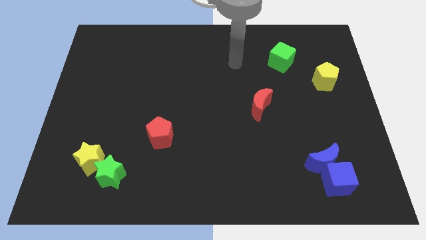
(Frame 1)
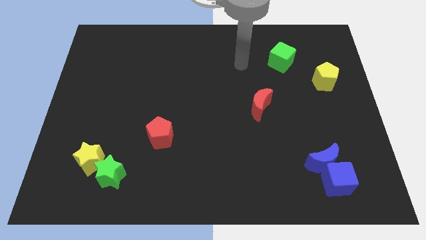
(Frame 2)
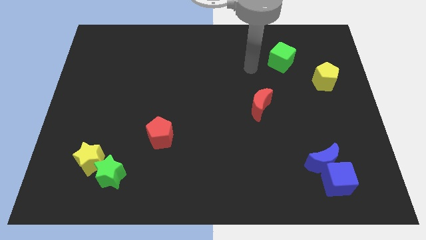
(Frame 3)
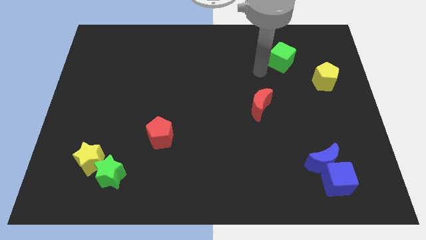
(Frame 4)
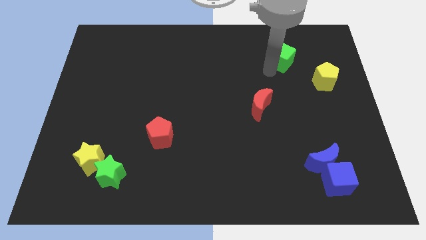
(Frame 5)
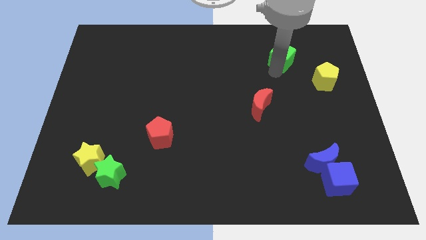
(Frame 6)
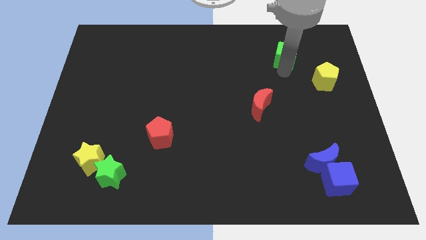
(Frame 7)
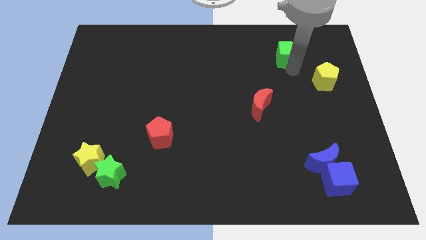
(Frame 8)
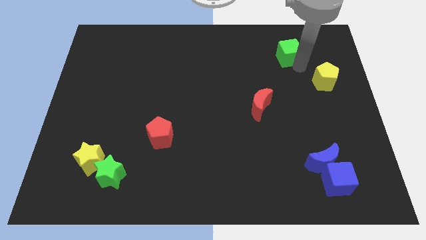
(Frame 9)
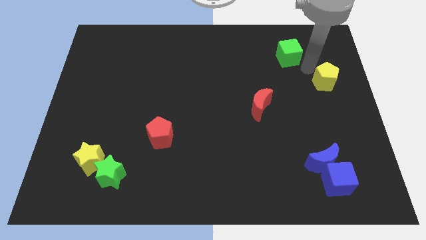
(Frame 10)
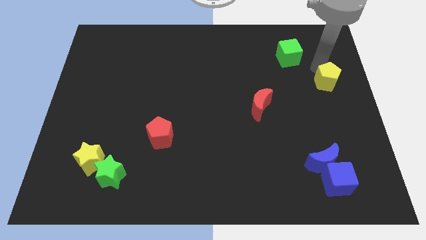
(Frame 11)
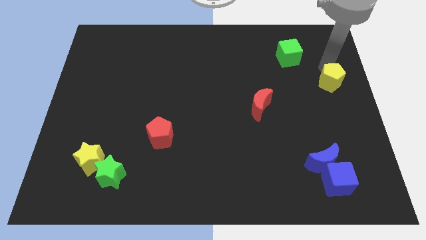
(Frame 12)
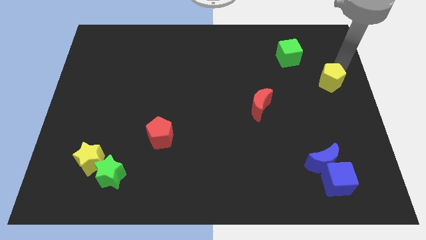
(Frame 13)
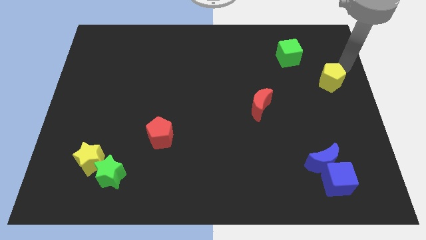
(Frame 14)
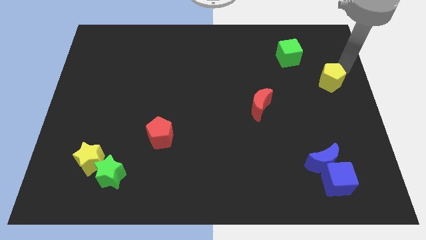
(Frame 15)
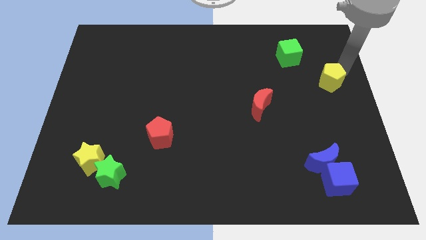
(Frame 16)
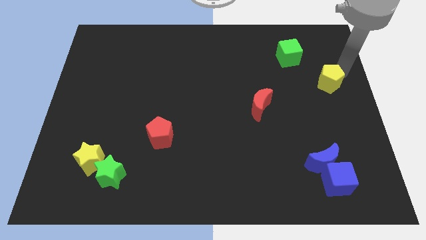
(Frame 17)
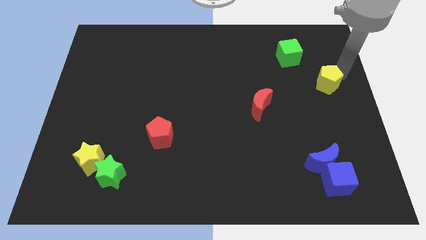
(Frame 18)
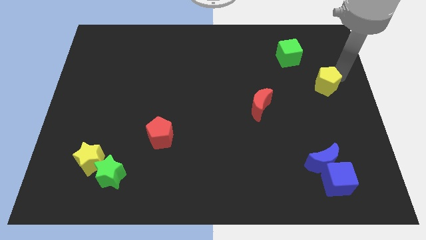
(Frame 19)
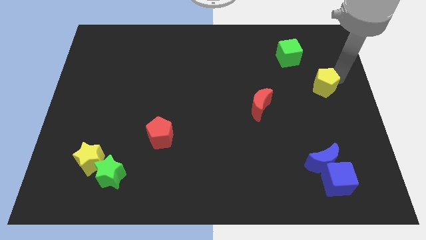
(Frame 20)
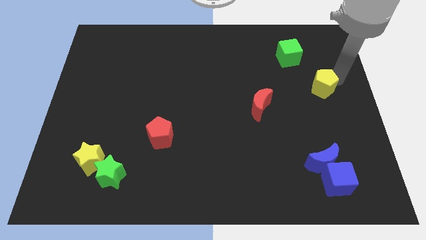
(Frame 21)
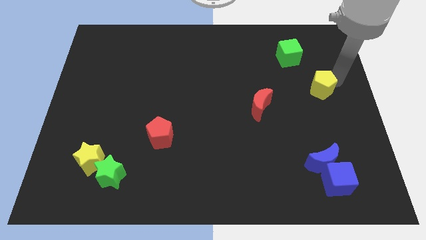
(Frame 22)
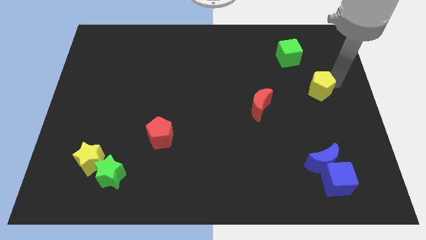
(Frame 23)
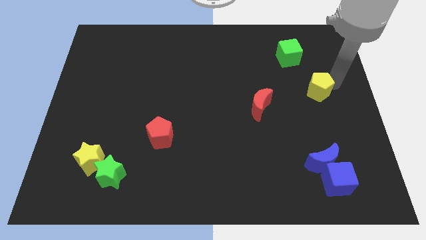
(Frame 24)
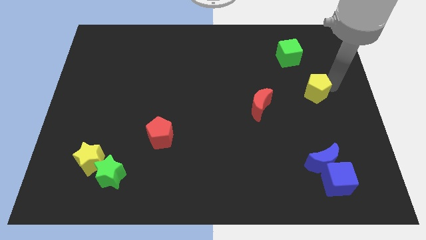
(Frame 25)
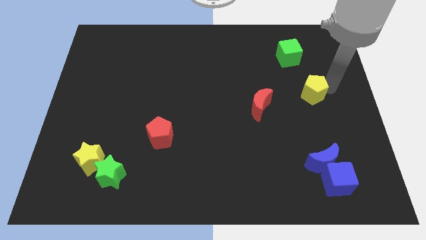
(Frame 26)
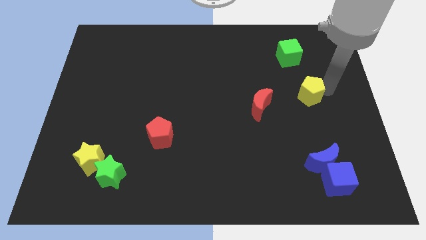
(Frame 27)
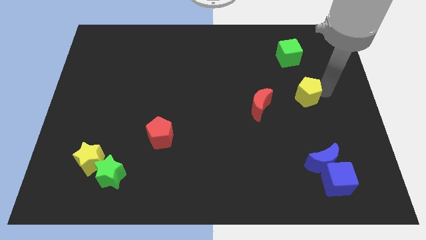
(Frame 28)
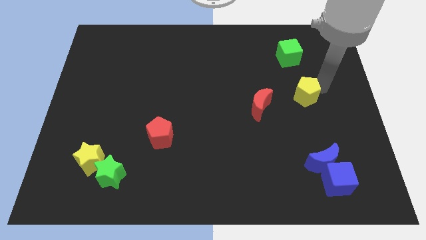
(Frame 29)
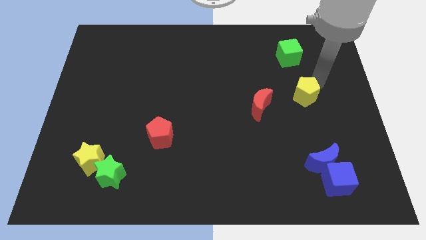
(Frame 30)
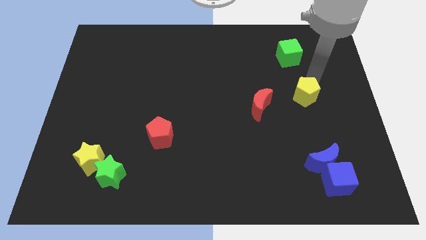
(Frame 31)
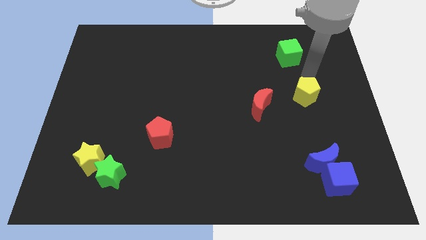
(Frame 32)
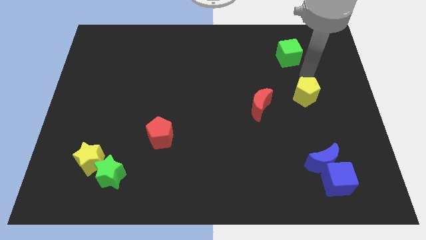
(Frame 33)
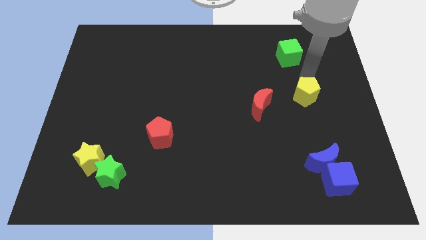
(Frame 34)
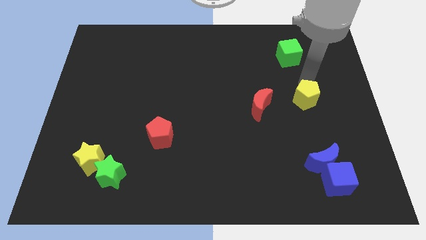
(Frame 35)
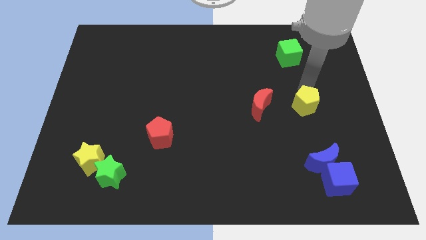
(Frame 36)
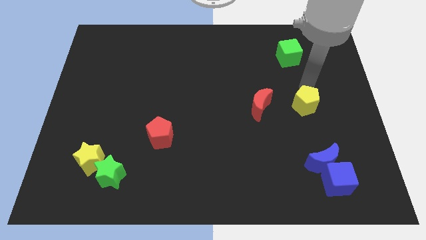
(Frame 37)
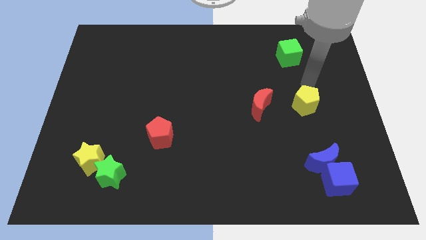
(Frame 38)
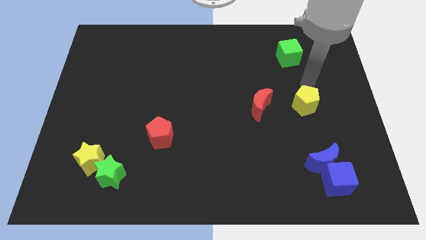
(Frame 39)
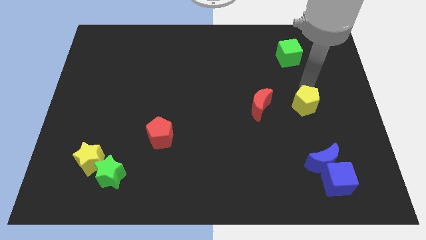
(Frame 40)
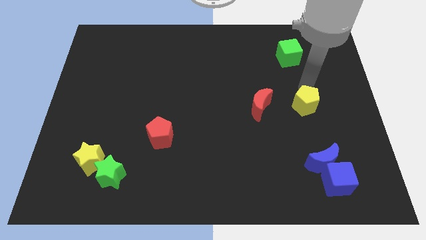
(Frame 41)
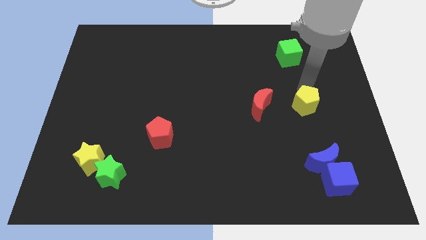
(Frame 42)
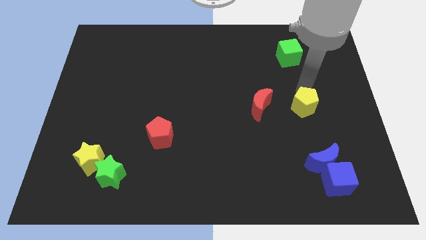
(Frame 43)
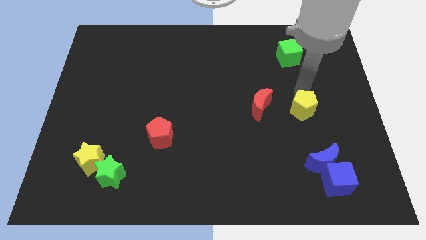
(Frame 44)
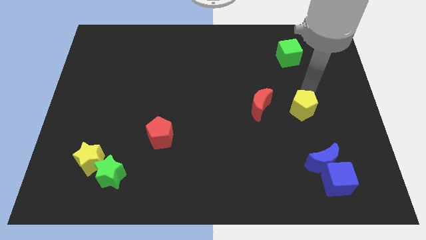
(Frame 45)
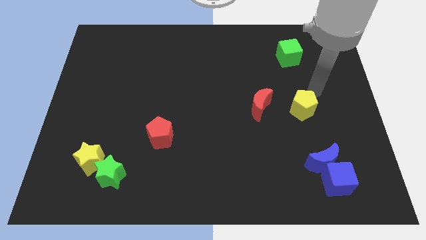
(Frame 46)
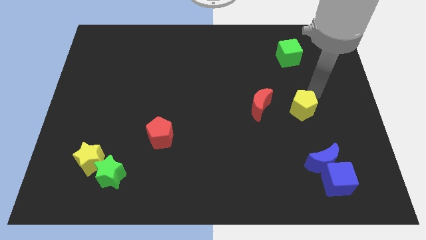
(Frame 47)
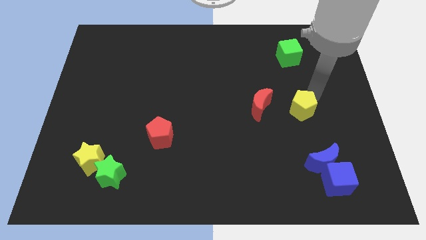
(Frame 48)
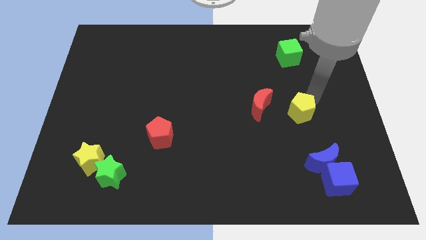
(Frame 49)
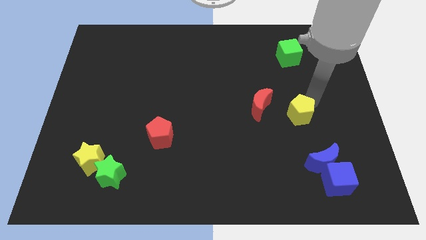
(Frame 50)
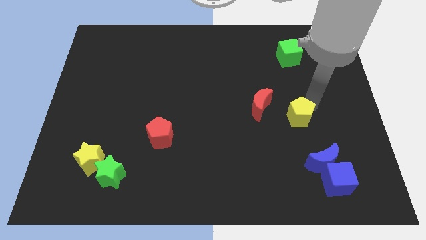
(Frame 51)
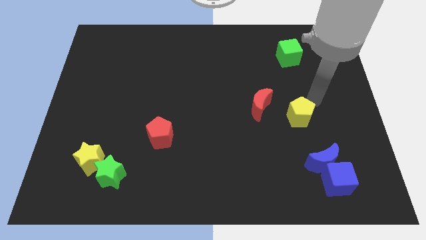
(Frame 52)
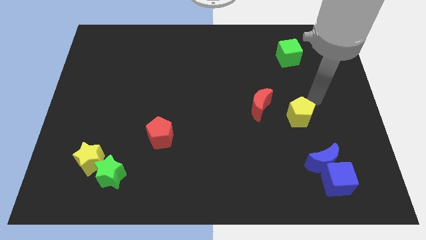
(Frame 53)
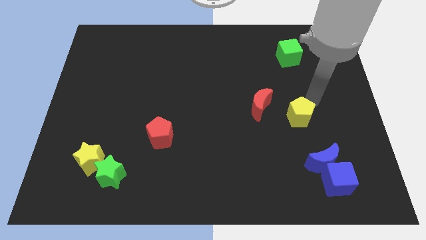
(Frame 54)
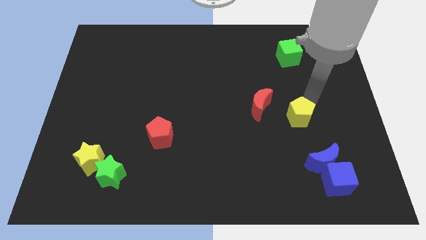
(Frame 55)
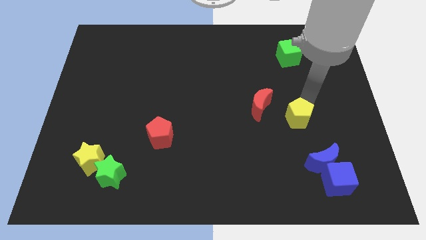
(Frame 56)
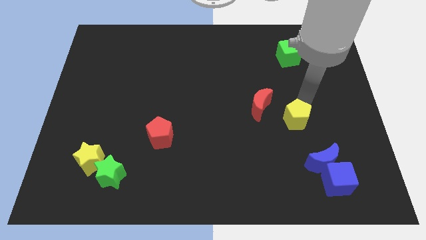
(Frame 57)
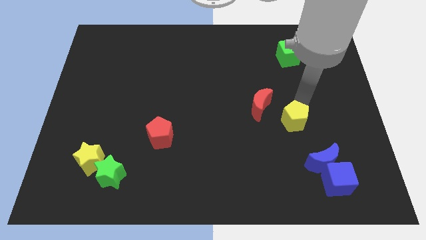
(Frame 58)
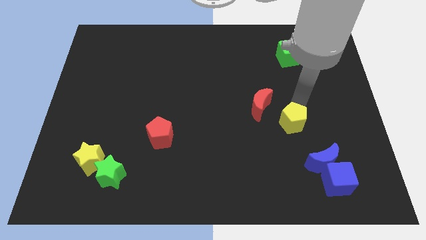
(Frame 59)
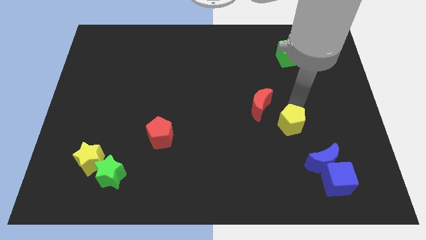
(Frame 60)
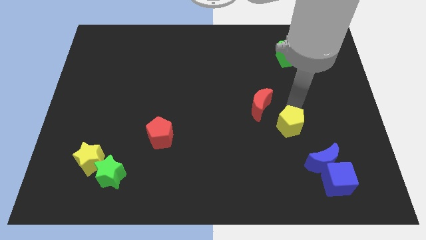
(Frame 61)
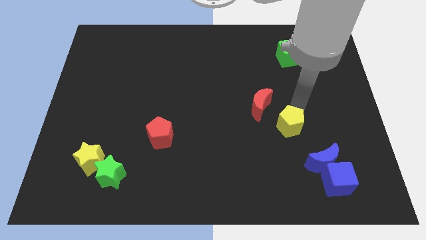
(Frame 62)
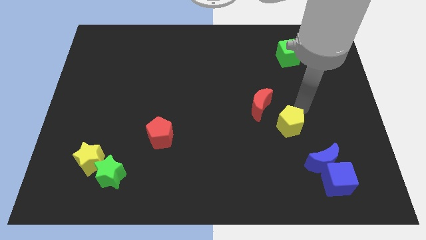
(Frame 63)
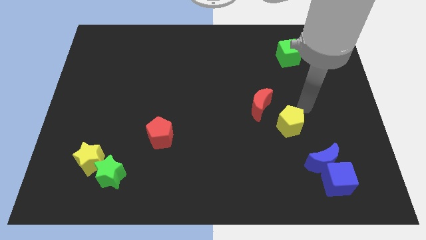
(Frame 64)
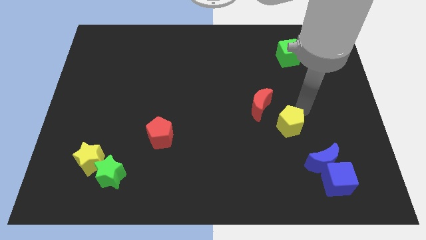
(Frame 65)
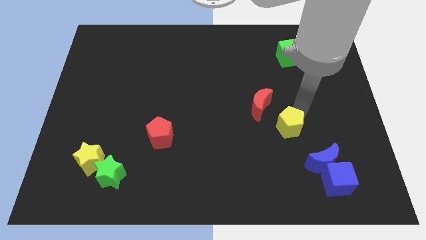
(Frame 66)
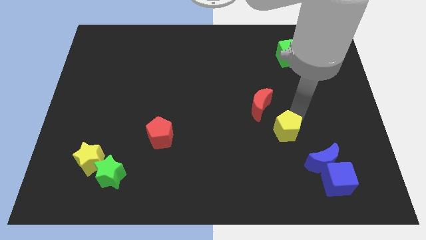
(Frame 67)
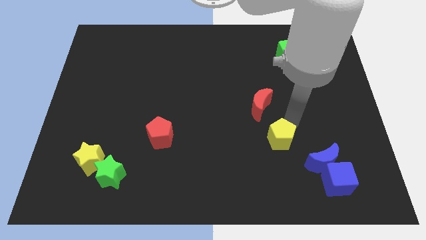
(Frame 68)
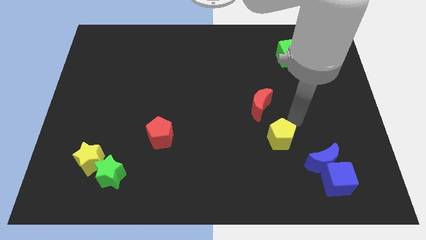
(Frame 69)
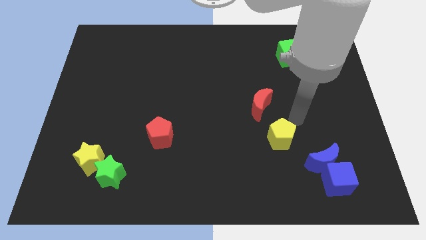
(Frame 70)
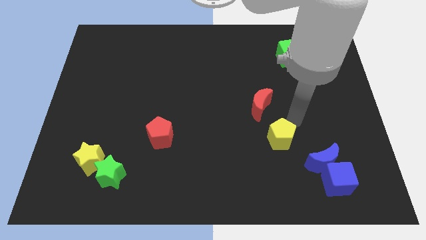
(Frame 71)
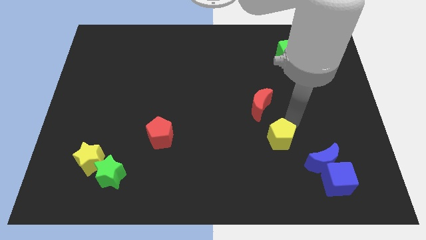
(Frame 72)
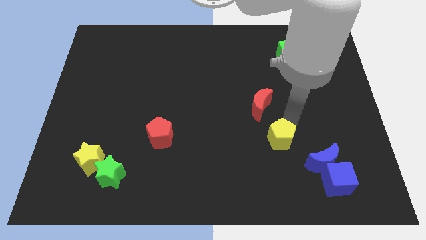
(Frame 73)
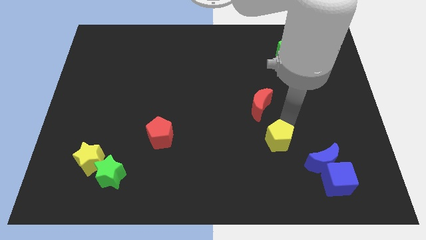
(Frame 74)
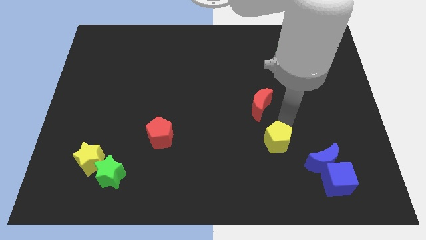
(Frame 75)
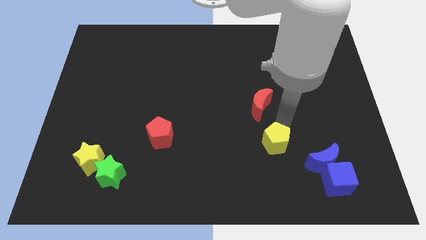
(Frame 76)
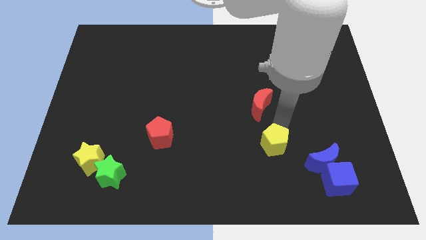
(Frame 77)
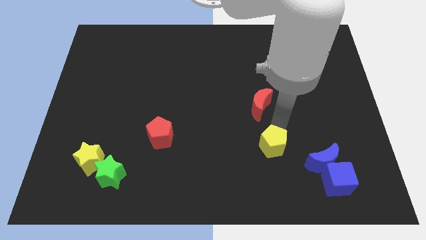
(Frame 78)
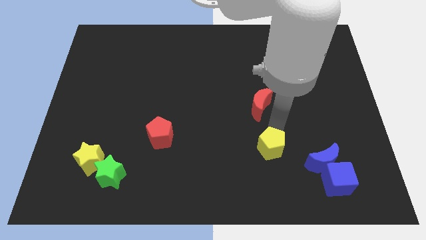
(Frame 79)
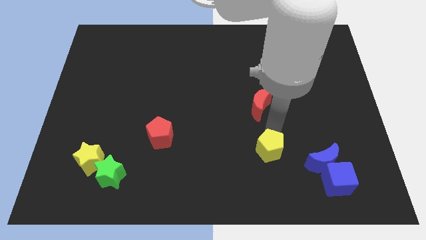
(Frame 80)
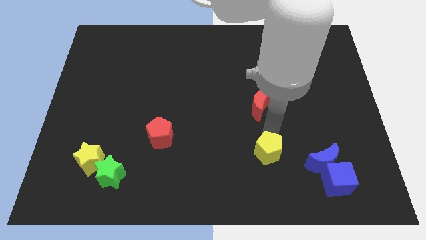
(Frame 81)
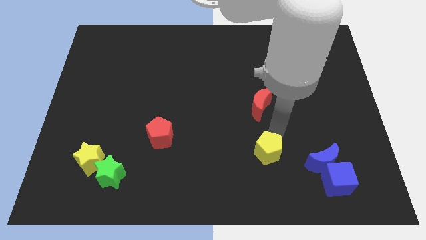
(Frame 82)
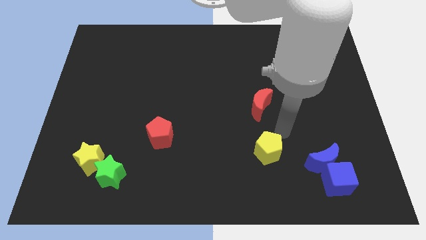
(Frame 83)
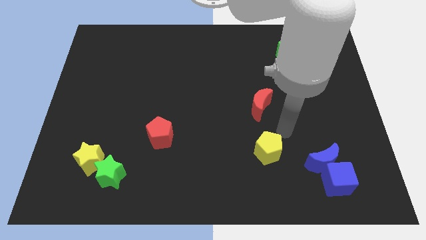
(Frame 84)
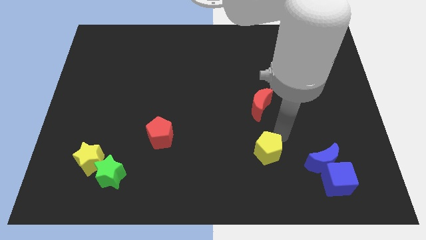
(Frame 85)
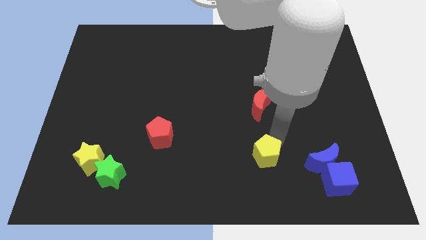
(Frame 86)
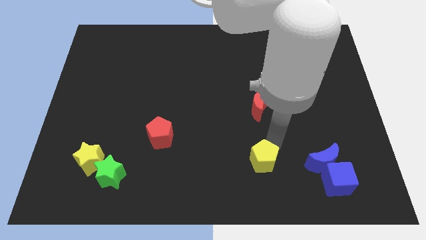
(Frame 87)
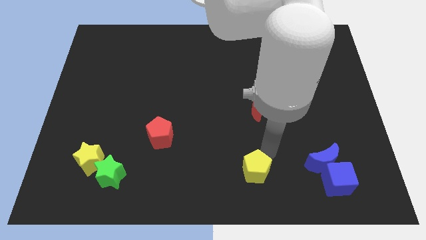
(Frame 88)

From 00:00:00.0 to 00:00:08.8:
slide the yellow pentagon to the bottom side
